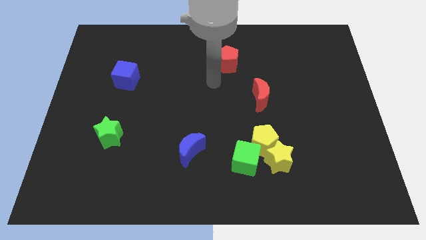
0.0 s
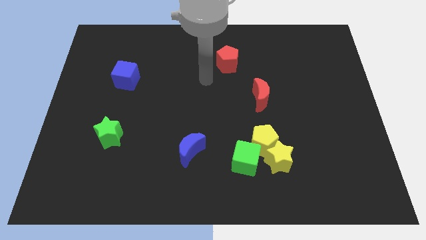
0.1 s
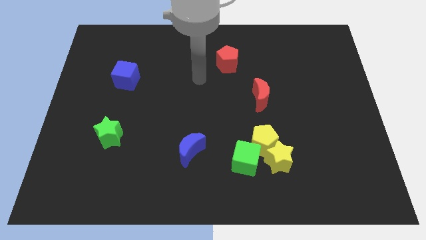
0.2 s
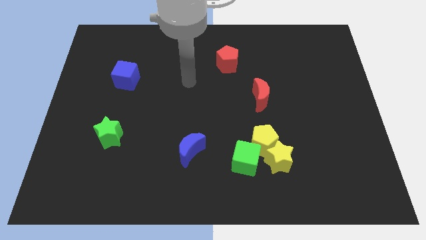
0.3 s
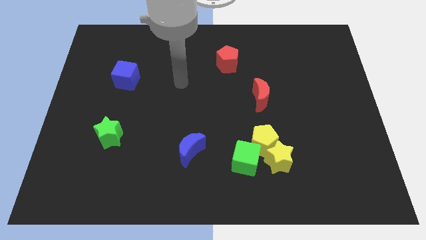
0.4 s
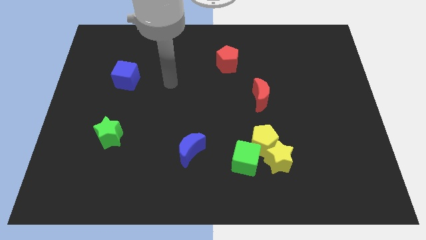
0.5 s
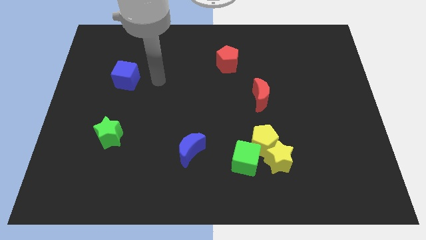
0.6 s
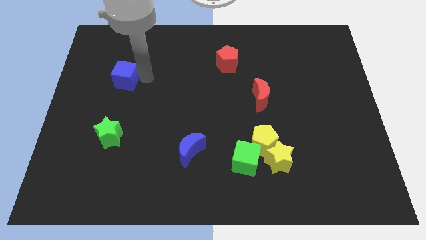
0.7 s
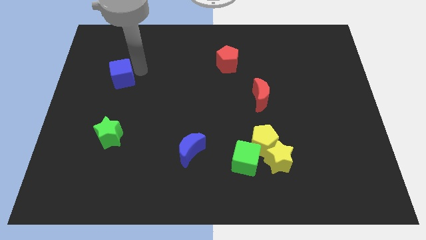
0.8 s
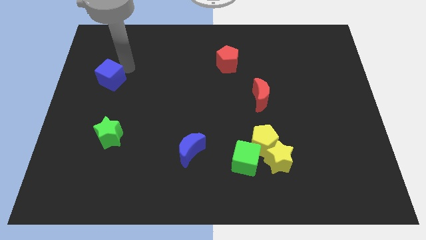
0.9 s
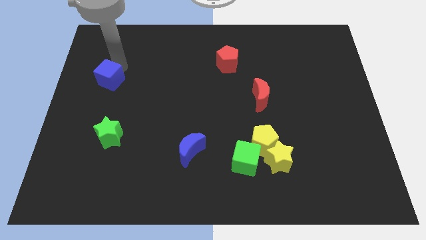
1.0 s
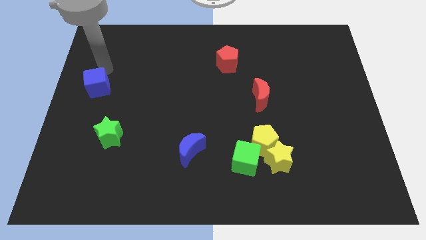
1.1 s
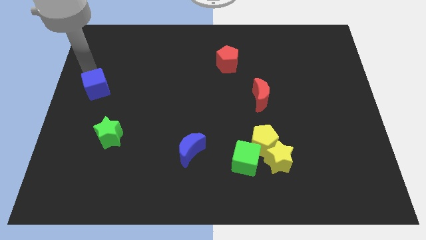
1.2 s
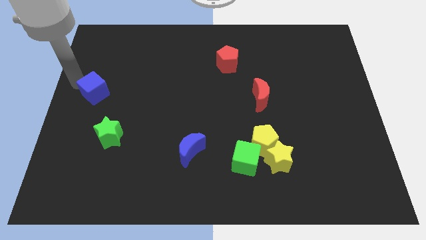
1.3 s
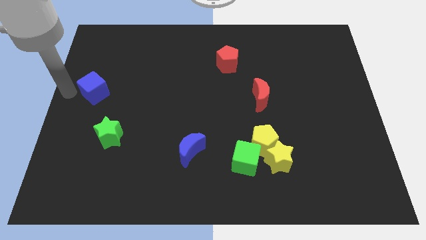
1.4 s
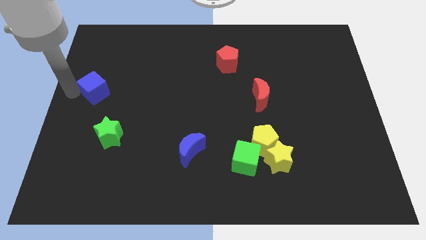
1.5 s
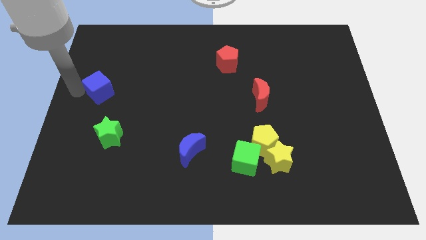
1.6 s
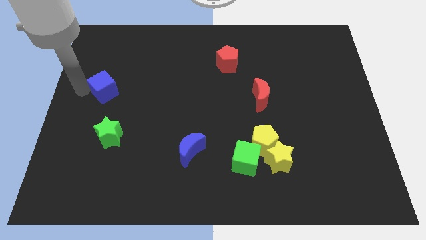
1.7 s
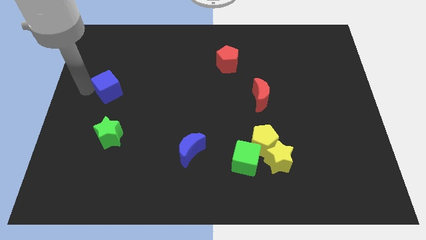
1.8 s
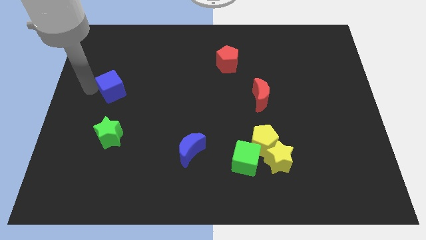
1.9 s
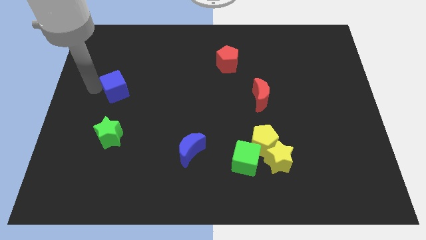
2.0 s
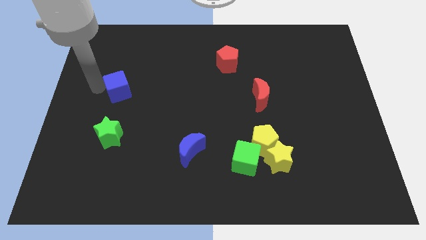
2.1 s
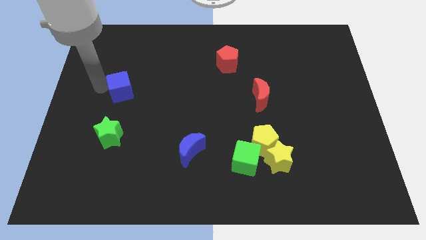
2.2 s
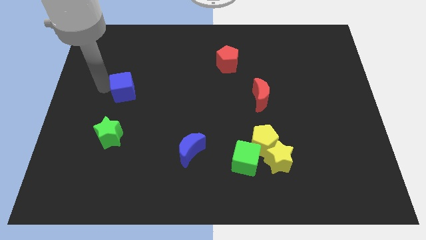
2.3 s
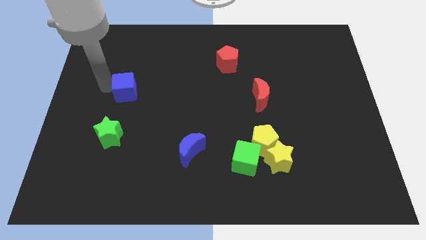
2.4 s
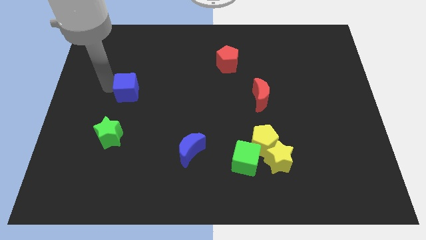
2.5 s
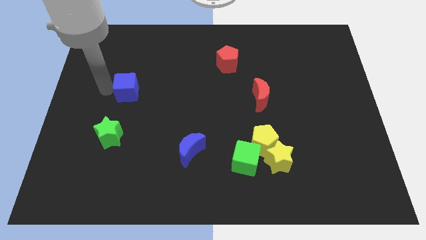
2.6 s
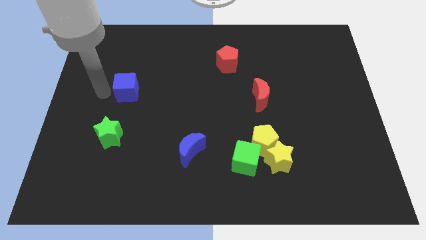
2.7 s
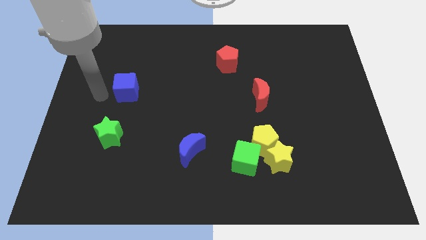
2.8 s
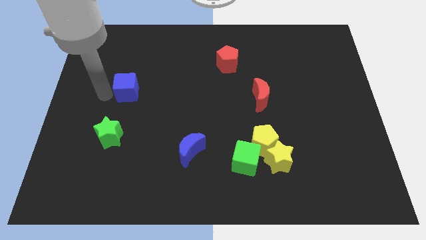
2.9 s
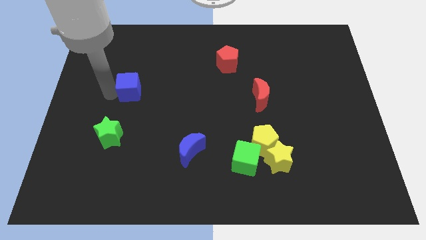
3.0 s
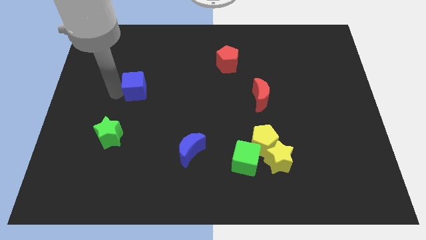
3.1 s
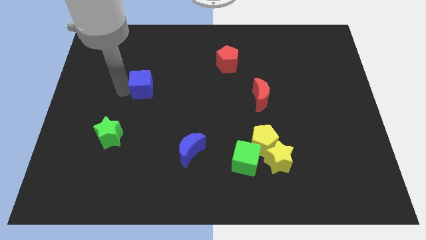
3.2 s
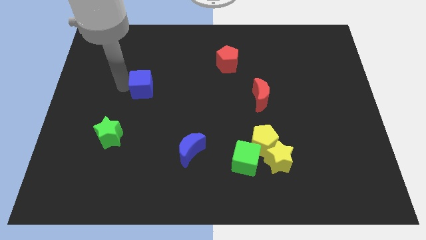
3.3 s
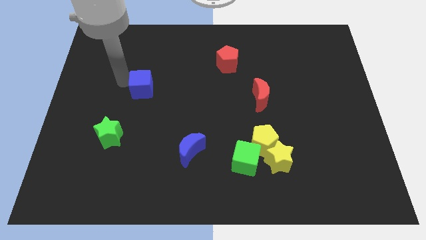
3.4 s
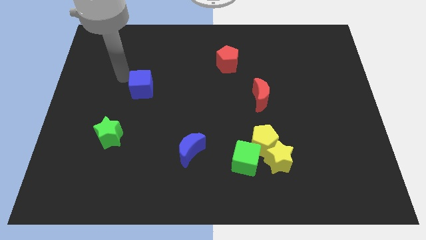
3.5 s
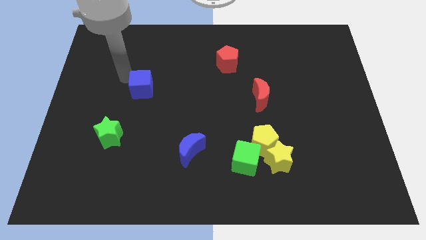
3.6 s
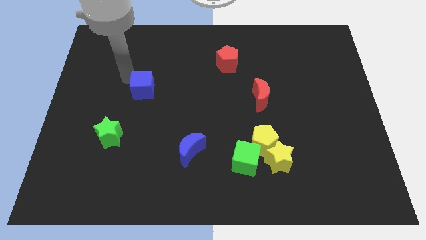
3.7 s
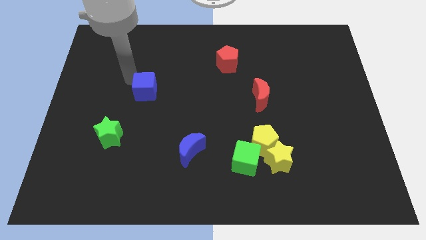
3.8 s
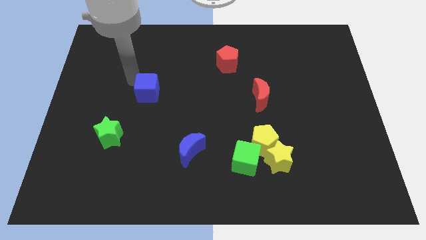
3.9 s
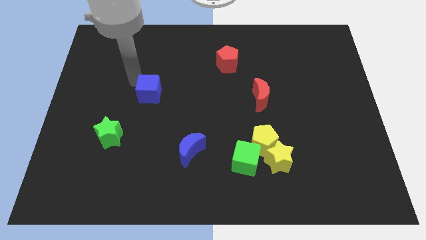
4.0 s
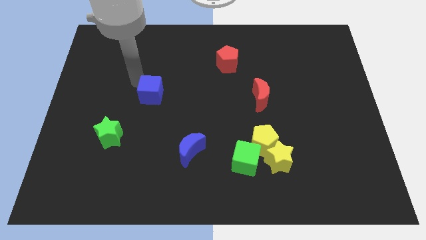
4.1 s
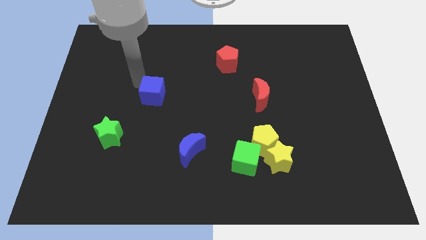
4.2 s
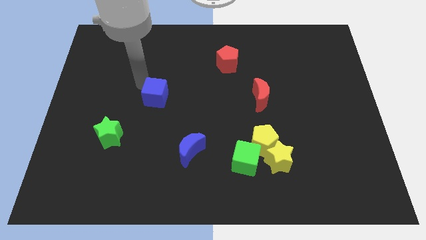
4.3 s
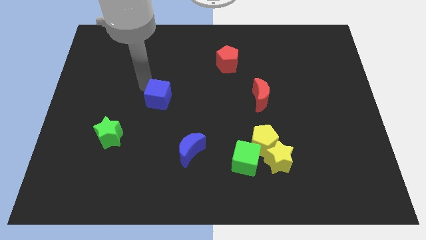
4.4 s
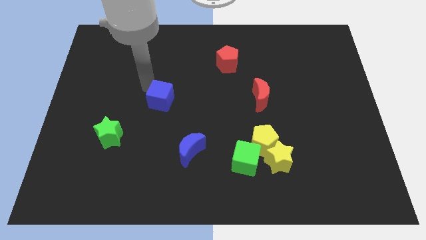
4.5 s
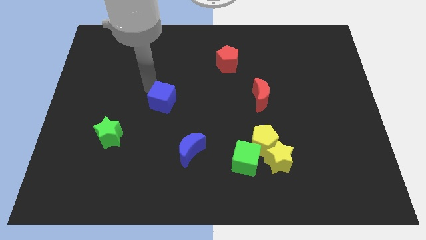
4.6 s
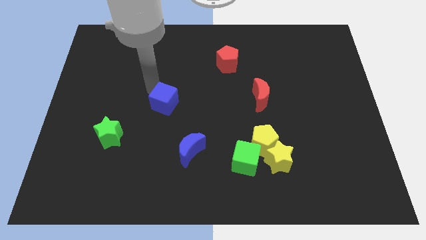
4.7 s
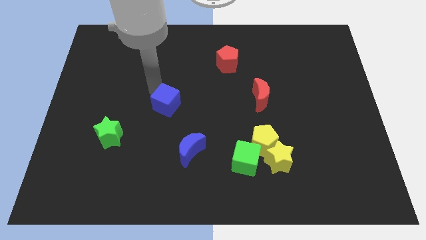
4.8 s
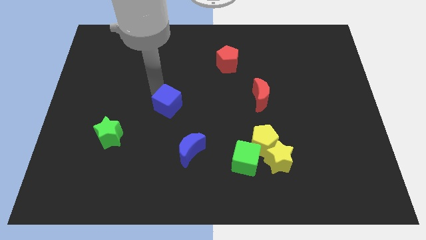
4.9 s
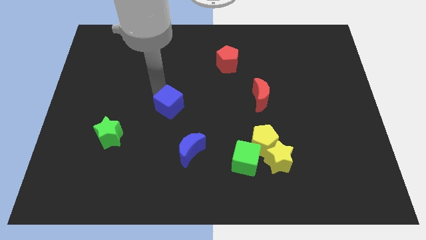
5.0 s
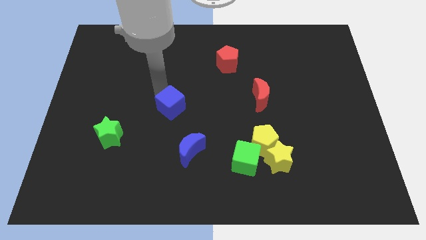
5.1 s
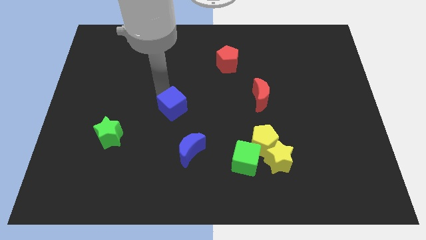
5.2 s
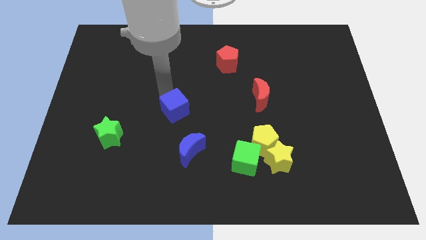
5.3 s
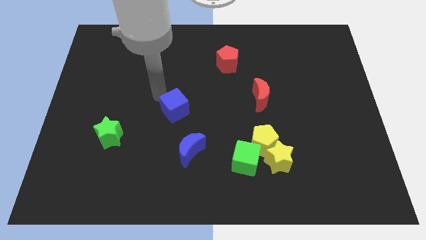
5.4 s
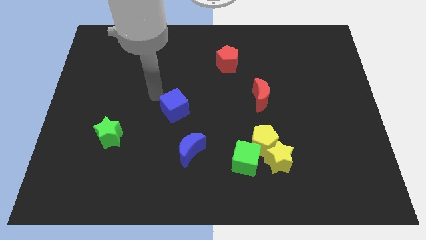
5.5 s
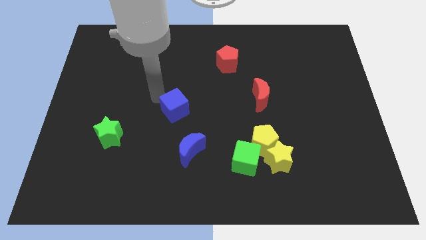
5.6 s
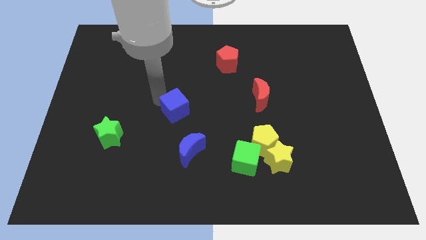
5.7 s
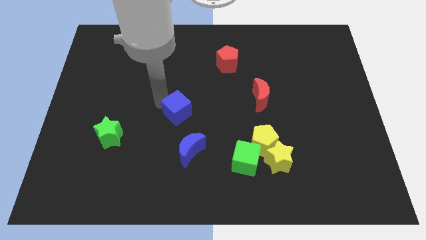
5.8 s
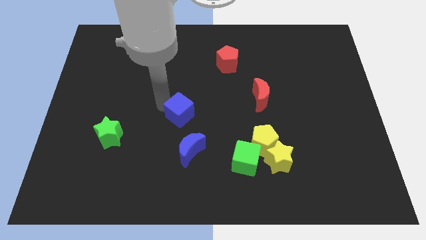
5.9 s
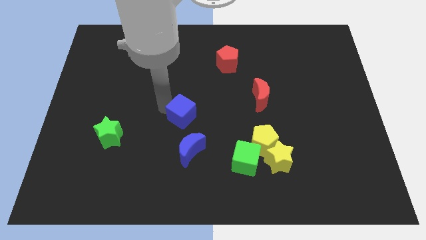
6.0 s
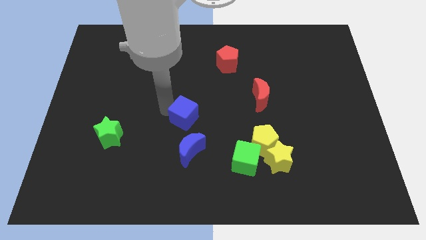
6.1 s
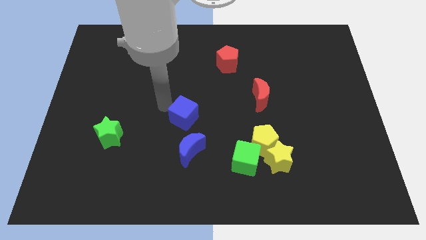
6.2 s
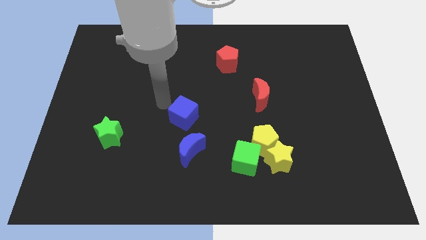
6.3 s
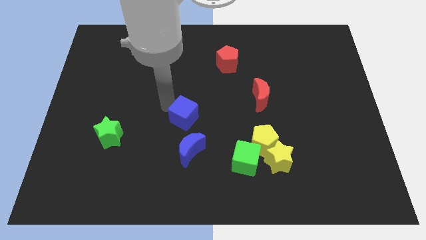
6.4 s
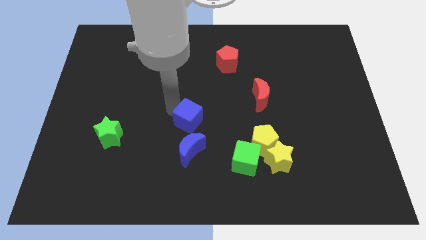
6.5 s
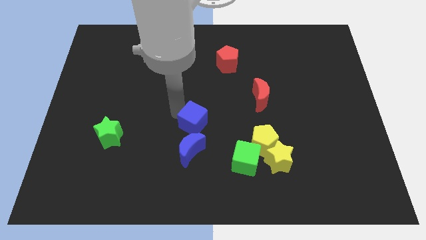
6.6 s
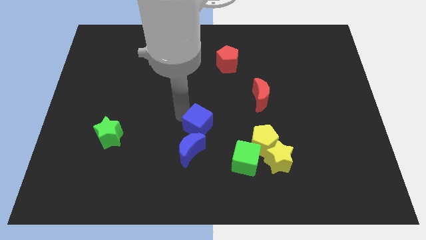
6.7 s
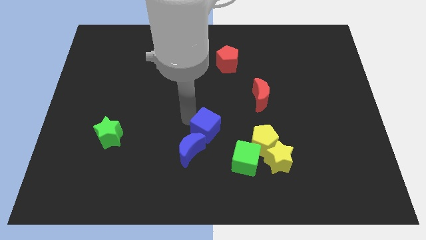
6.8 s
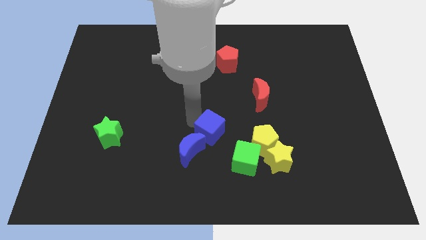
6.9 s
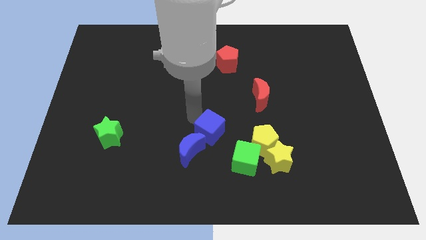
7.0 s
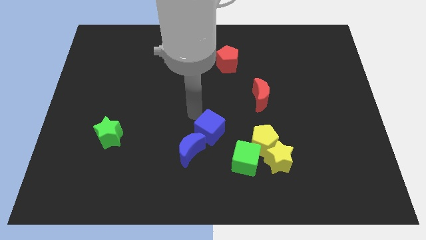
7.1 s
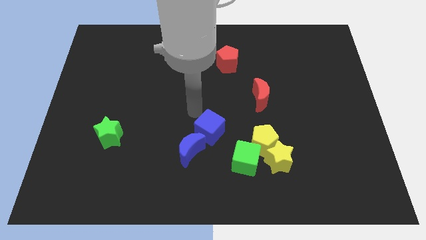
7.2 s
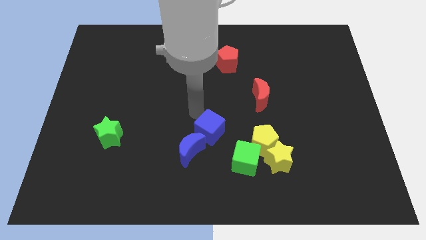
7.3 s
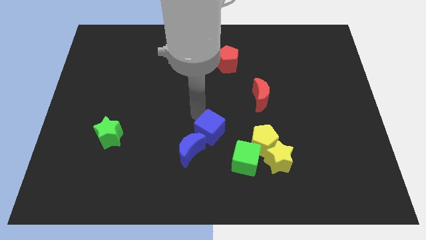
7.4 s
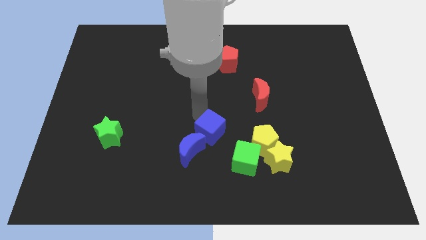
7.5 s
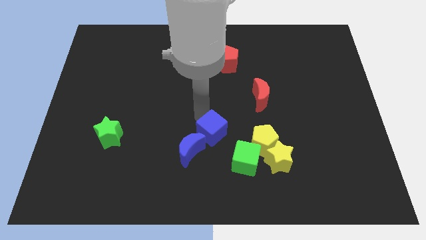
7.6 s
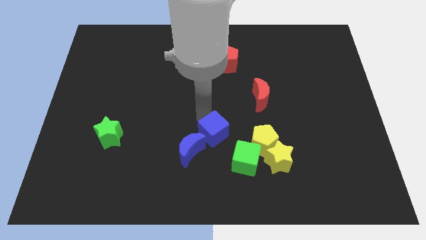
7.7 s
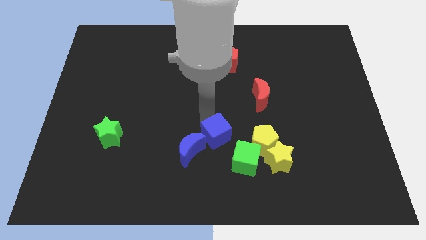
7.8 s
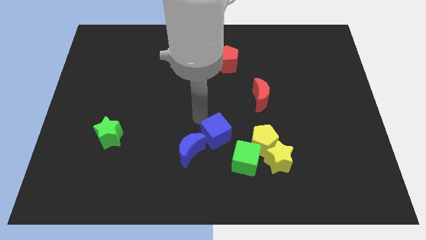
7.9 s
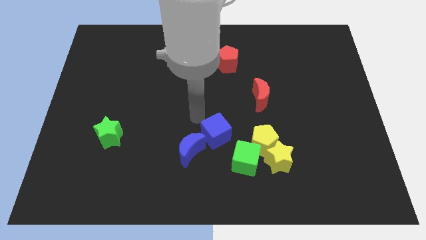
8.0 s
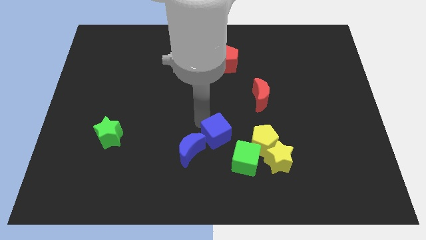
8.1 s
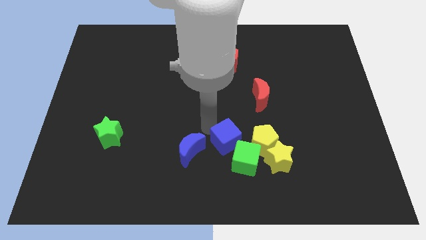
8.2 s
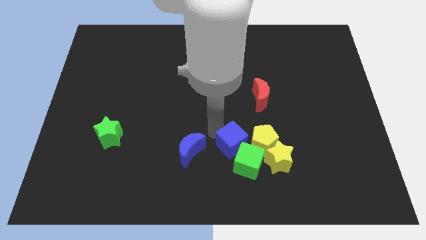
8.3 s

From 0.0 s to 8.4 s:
slide the blue cube towards the green cube
